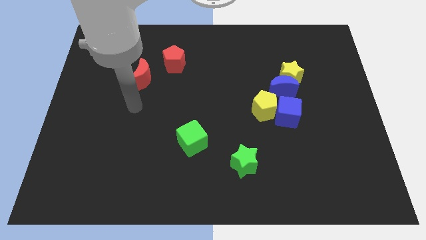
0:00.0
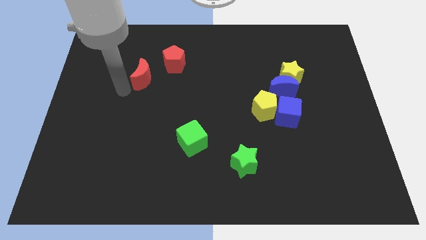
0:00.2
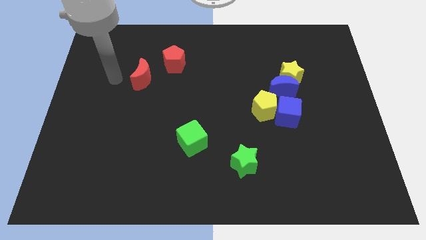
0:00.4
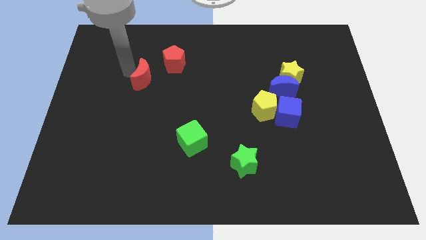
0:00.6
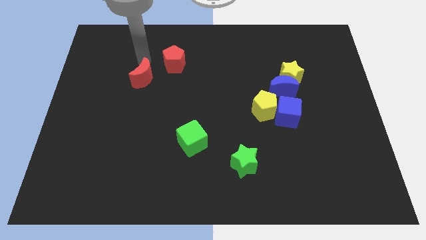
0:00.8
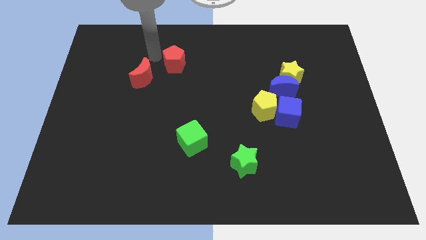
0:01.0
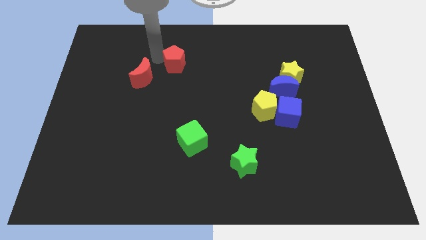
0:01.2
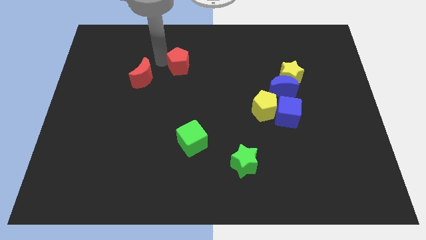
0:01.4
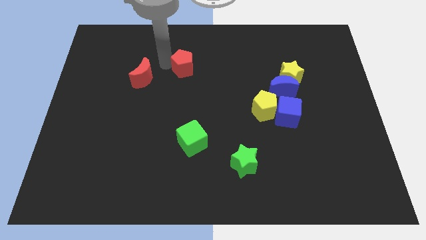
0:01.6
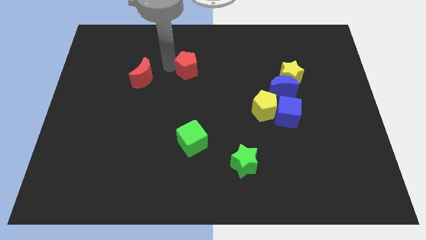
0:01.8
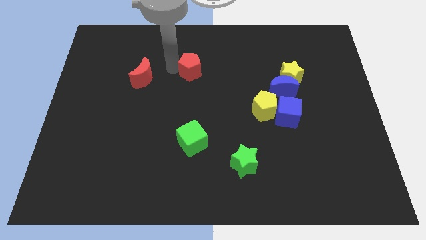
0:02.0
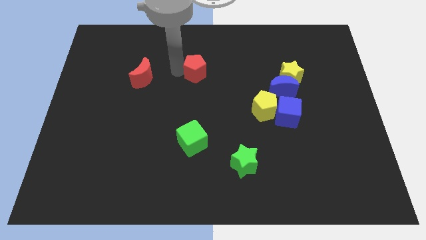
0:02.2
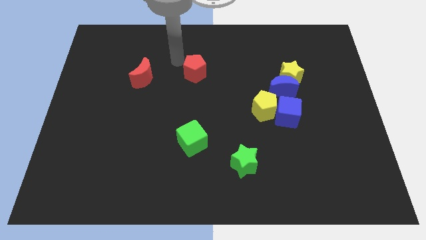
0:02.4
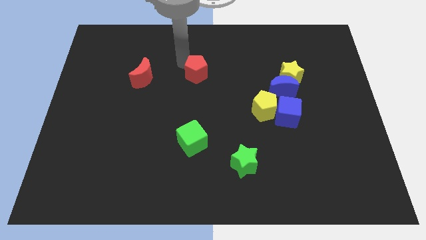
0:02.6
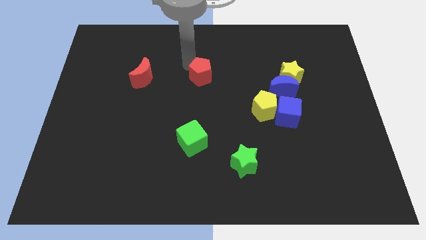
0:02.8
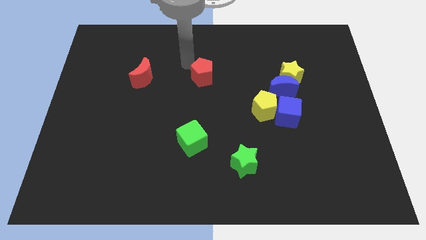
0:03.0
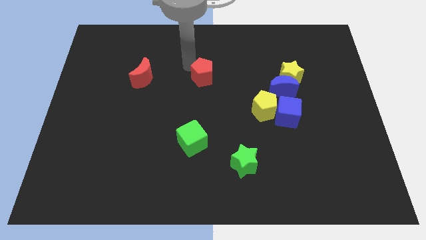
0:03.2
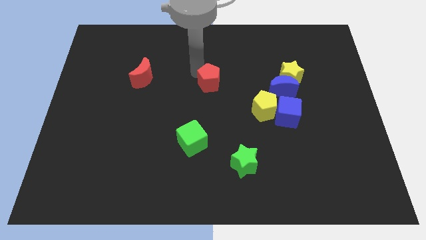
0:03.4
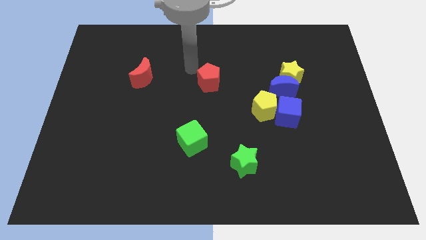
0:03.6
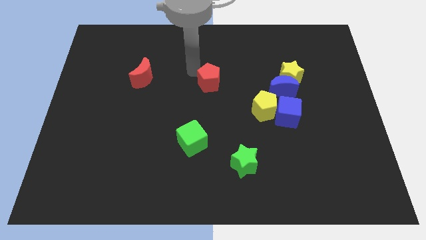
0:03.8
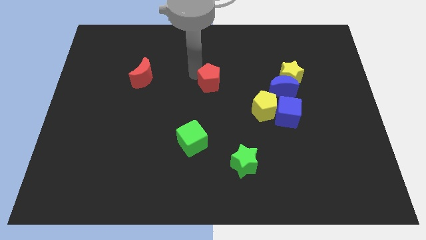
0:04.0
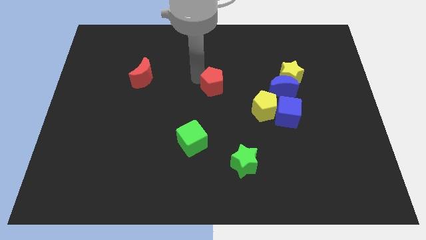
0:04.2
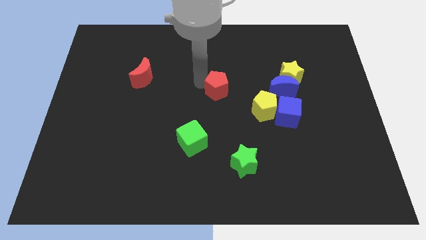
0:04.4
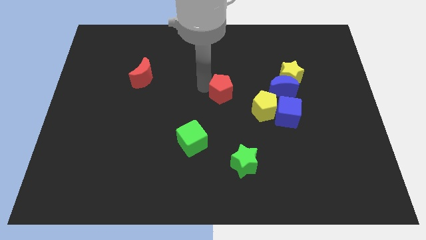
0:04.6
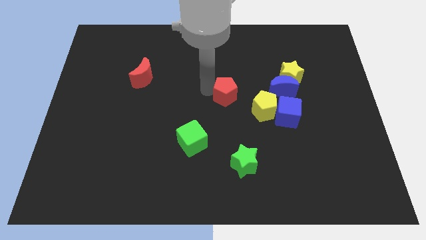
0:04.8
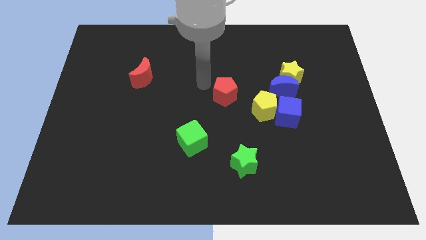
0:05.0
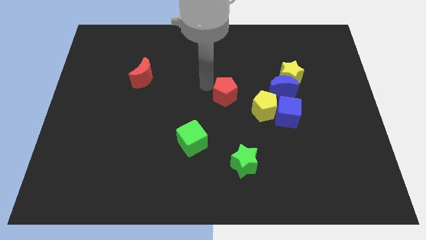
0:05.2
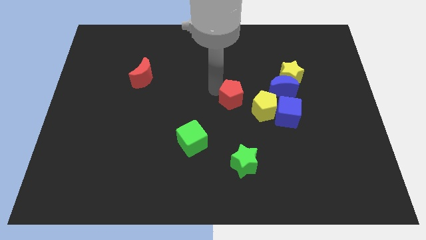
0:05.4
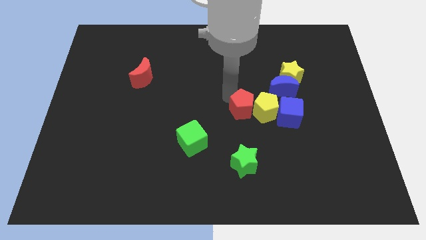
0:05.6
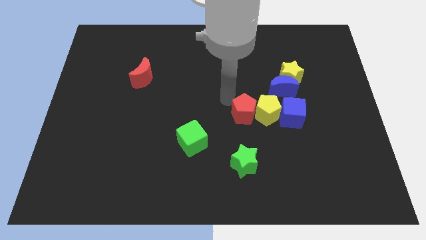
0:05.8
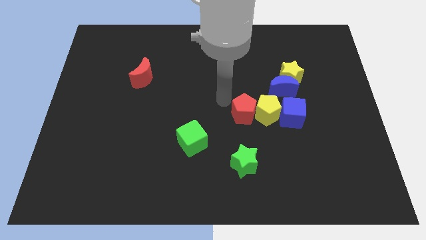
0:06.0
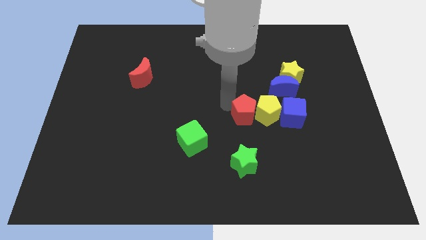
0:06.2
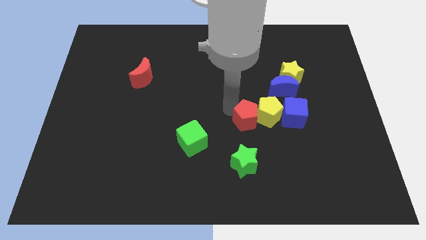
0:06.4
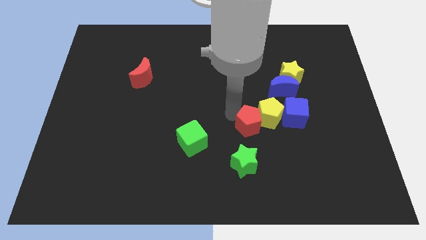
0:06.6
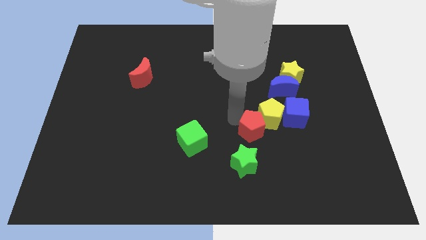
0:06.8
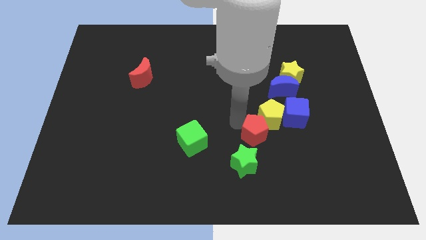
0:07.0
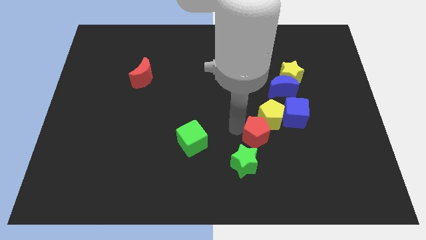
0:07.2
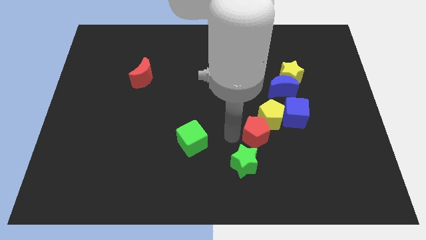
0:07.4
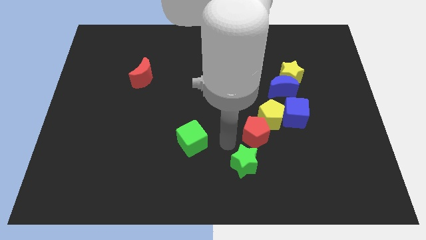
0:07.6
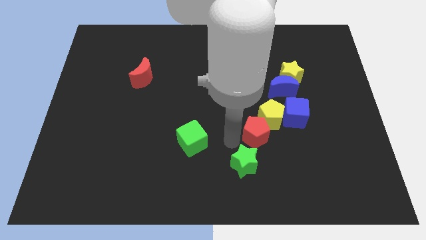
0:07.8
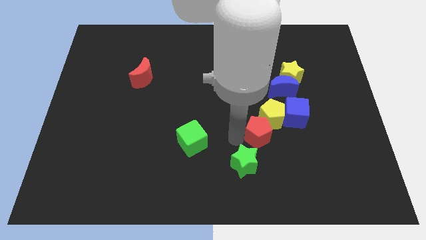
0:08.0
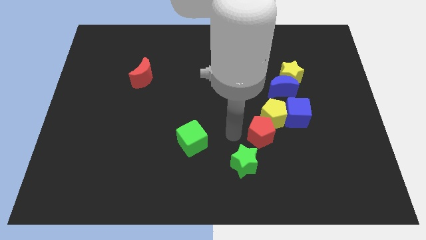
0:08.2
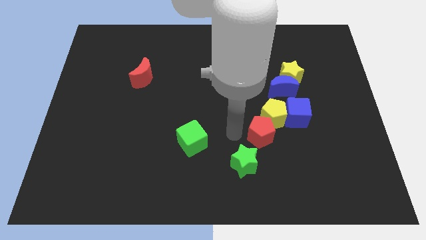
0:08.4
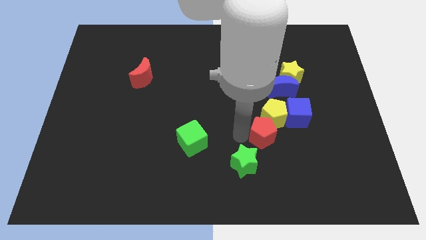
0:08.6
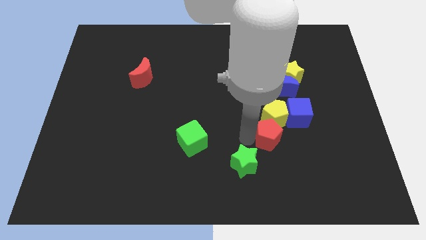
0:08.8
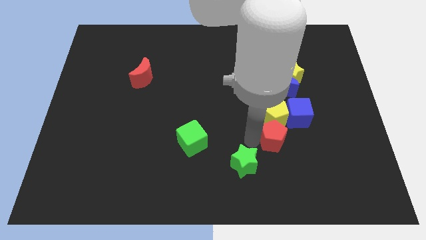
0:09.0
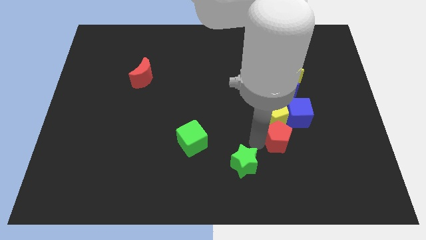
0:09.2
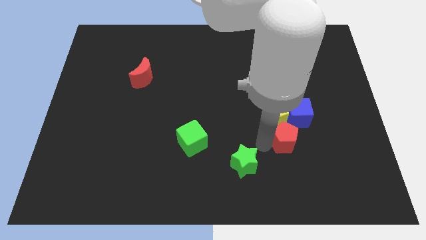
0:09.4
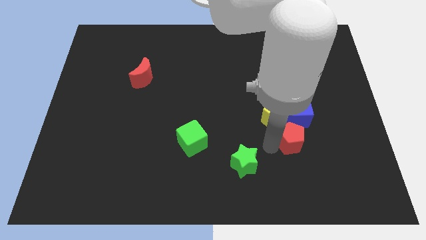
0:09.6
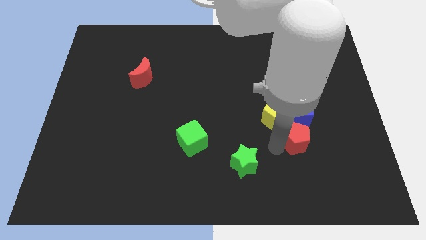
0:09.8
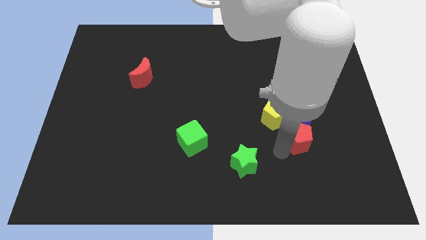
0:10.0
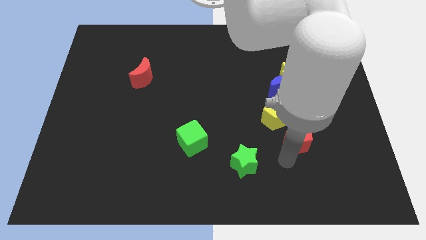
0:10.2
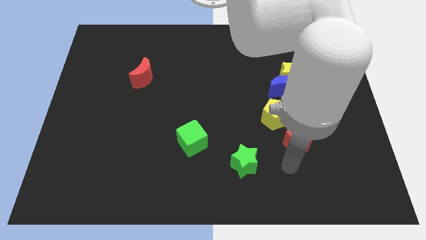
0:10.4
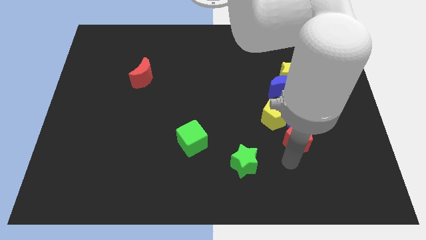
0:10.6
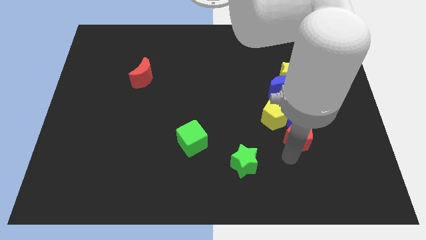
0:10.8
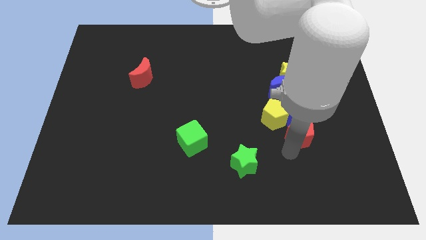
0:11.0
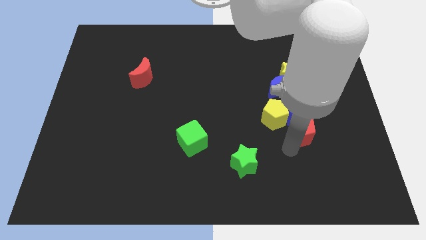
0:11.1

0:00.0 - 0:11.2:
push the red pentagon to the right of the yellow pentagon

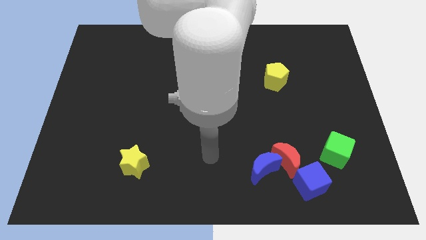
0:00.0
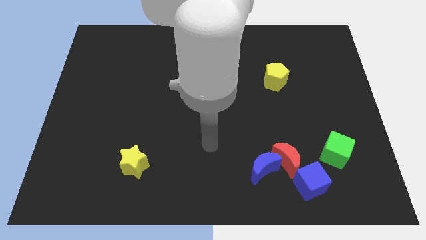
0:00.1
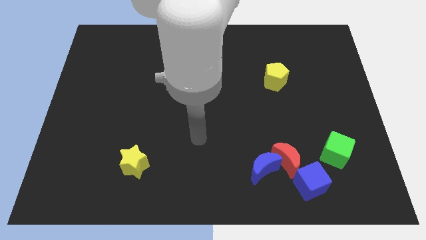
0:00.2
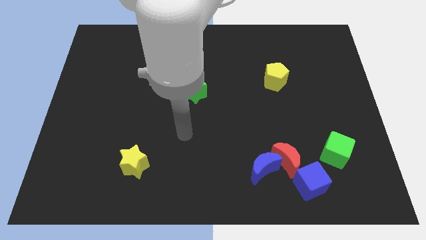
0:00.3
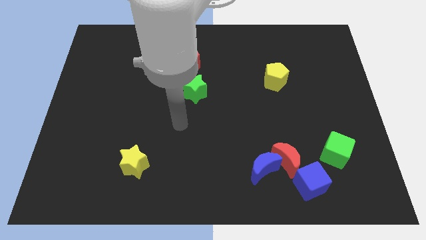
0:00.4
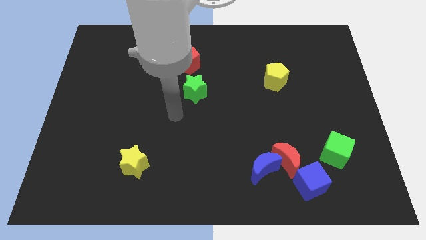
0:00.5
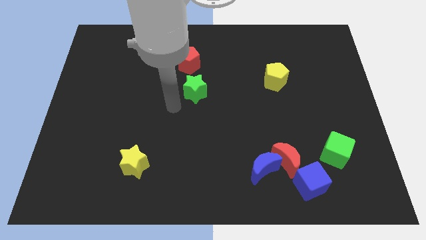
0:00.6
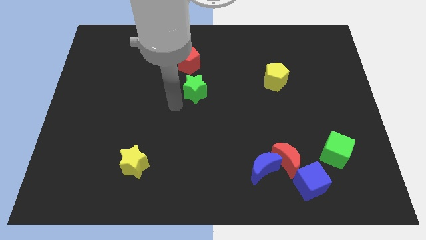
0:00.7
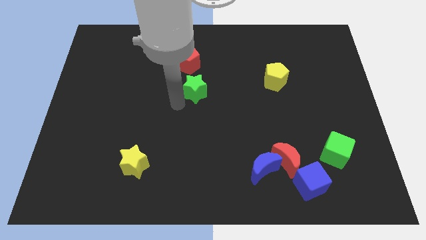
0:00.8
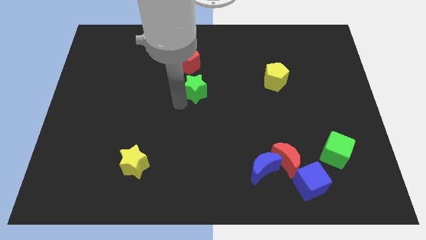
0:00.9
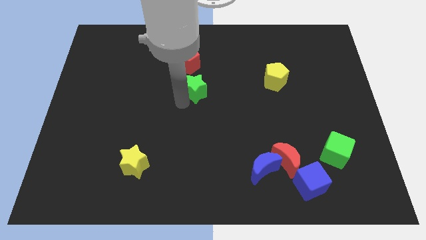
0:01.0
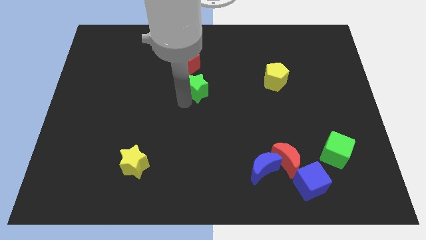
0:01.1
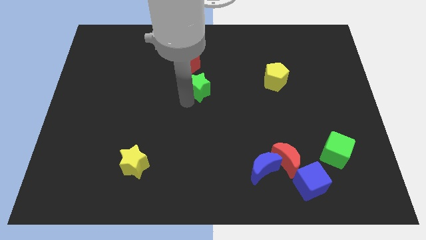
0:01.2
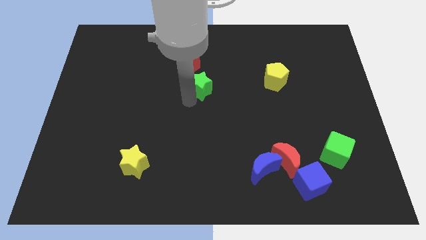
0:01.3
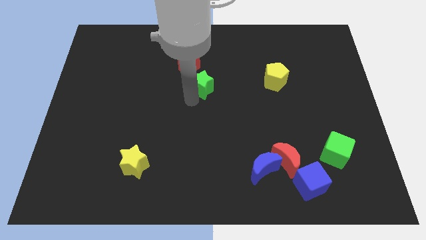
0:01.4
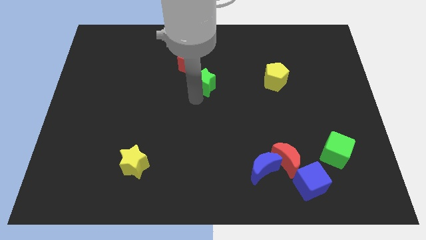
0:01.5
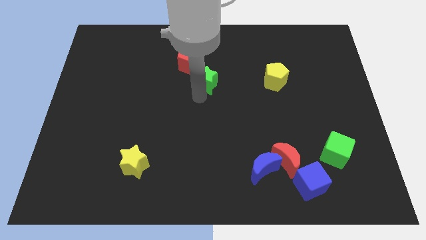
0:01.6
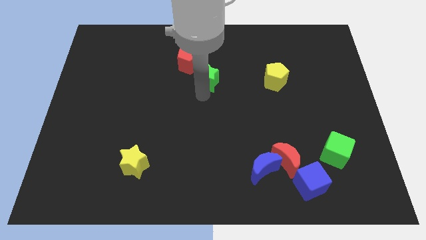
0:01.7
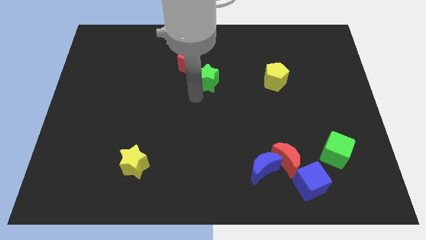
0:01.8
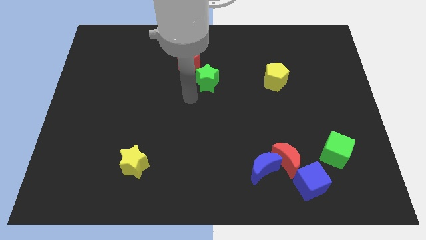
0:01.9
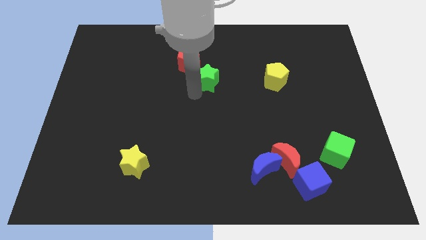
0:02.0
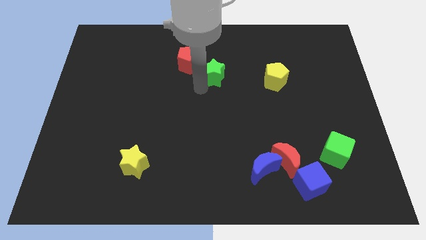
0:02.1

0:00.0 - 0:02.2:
move the green star to the right of the red pentagon
